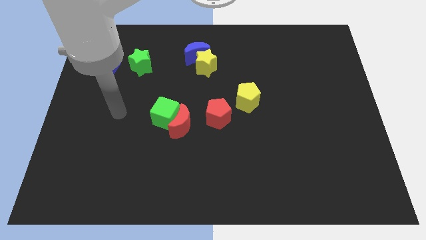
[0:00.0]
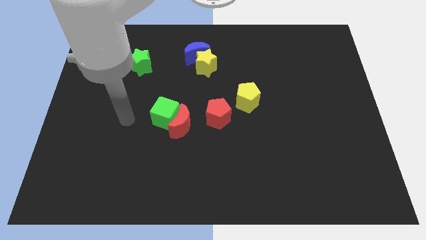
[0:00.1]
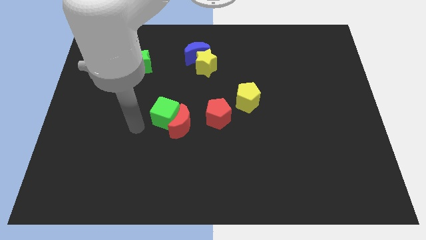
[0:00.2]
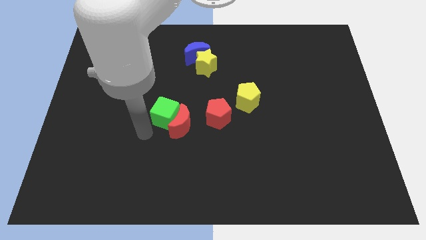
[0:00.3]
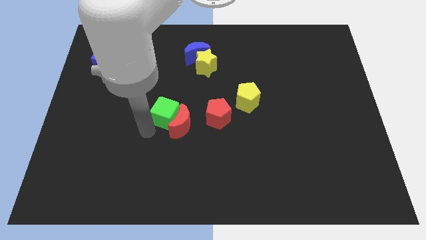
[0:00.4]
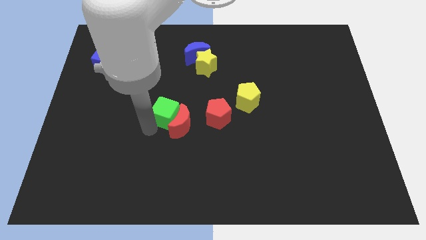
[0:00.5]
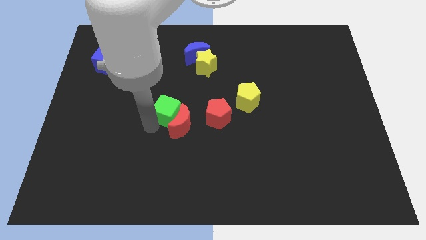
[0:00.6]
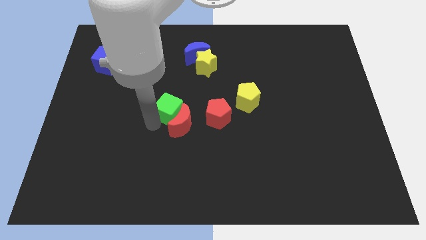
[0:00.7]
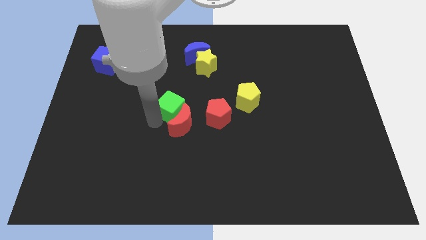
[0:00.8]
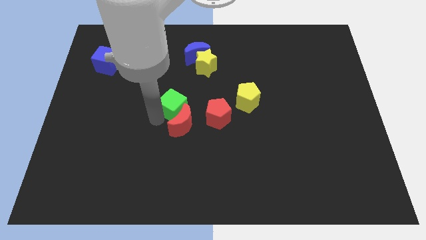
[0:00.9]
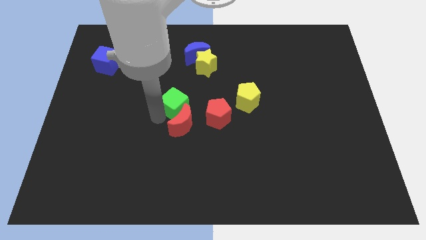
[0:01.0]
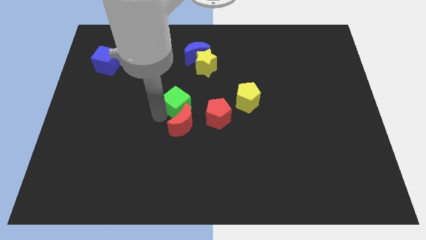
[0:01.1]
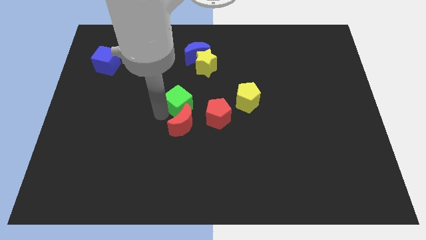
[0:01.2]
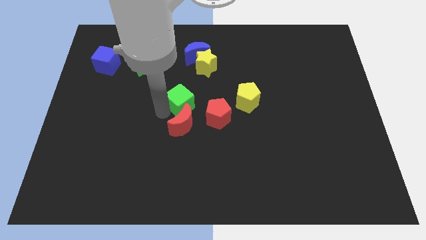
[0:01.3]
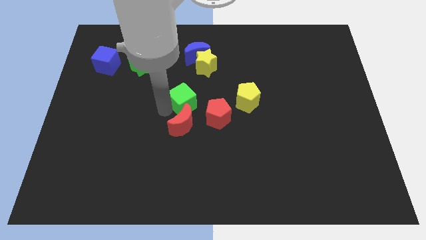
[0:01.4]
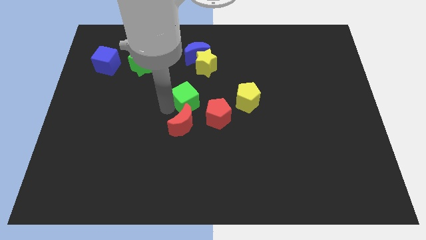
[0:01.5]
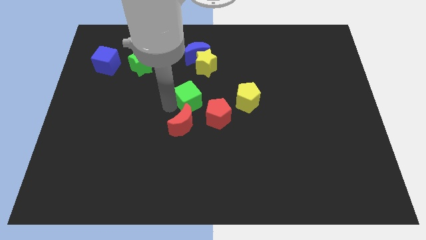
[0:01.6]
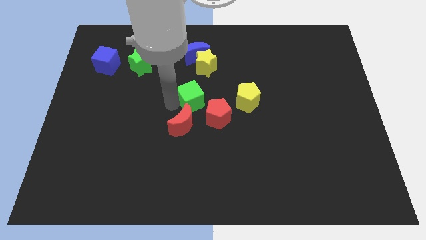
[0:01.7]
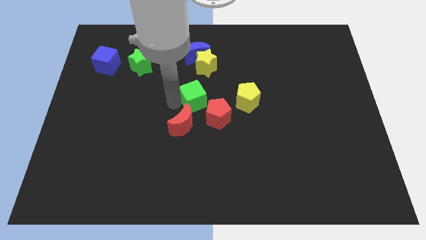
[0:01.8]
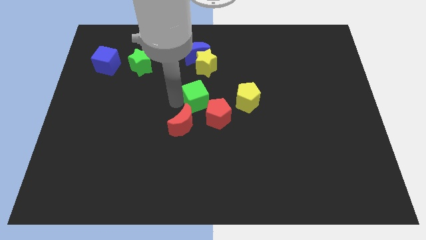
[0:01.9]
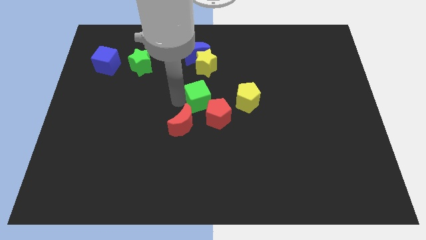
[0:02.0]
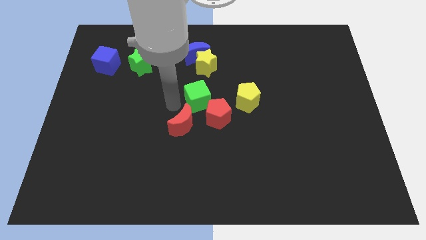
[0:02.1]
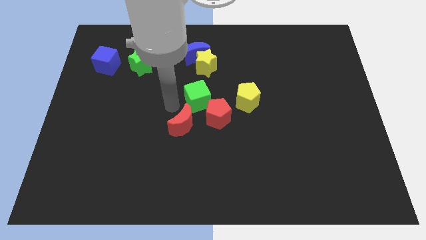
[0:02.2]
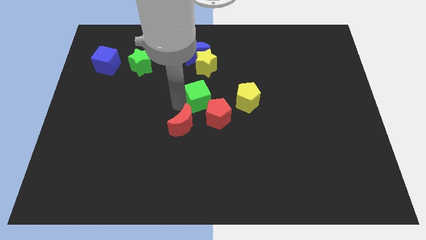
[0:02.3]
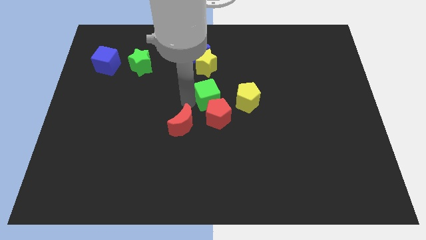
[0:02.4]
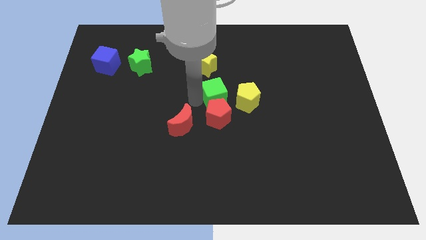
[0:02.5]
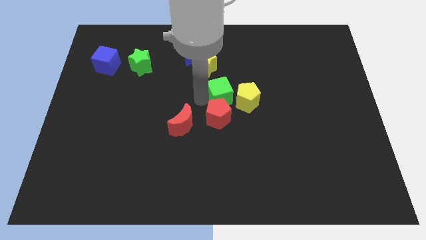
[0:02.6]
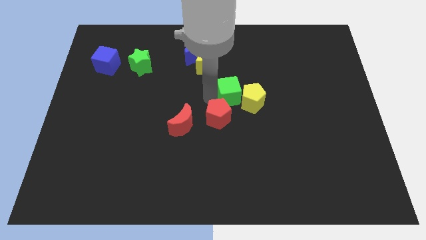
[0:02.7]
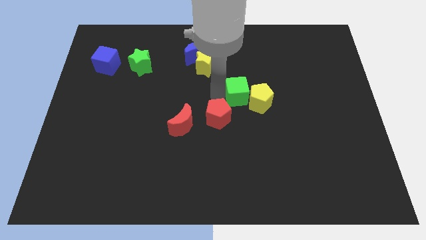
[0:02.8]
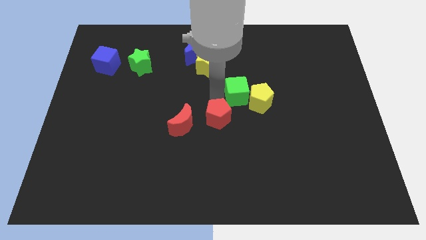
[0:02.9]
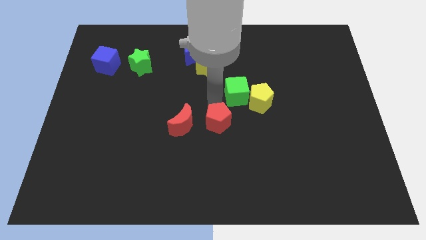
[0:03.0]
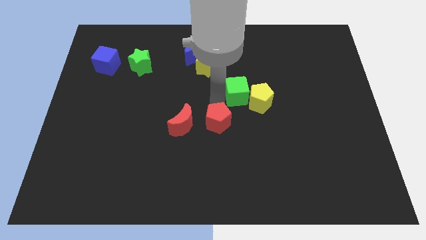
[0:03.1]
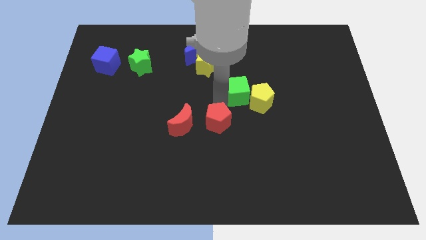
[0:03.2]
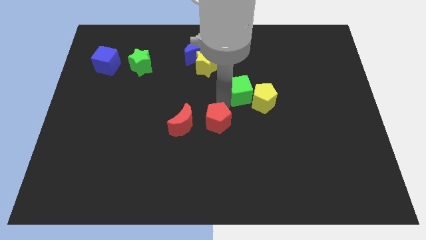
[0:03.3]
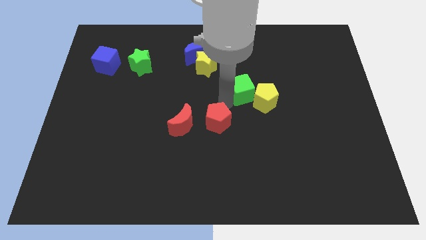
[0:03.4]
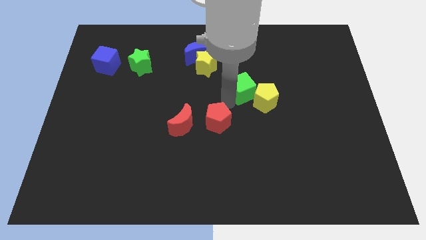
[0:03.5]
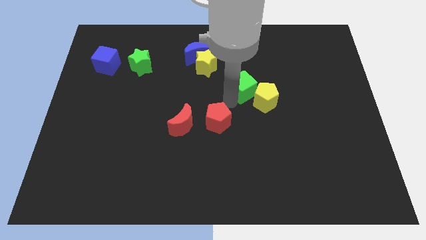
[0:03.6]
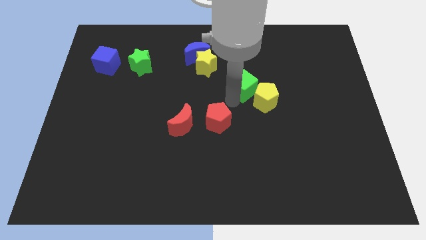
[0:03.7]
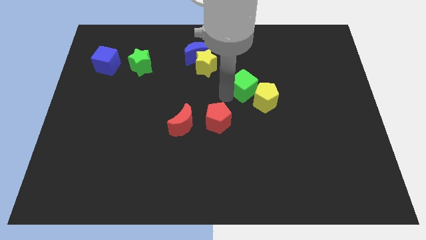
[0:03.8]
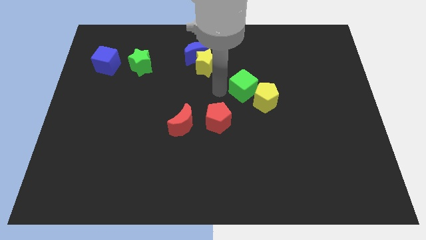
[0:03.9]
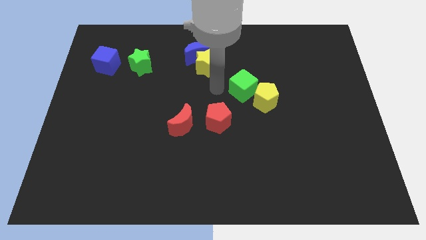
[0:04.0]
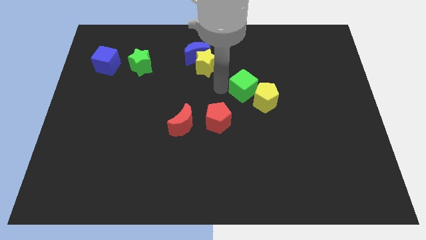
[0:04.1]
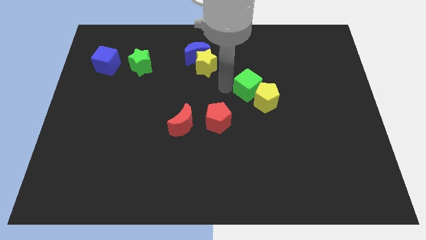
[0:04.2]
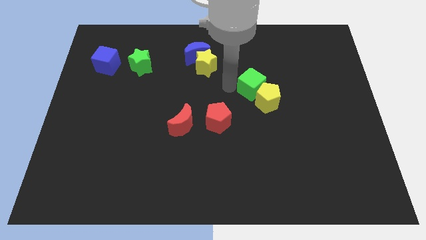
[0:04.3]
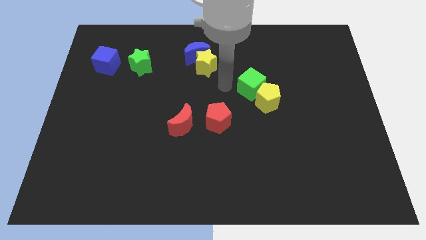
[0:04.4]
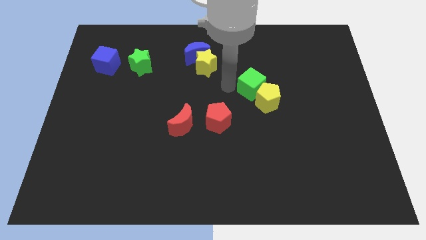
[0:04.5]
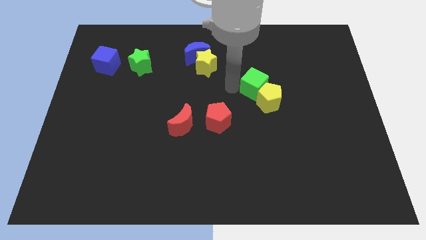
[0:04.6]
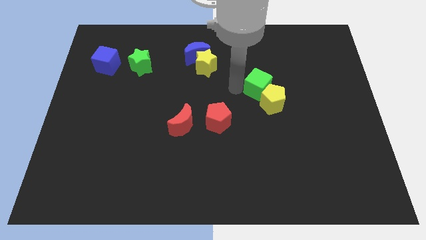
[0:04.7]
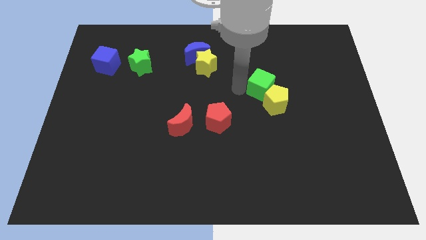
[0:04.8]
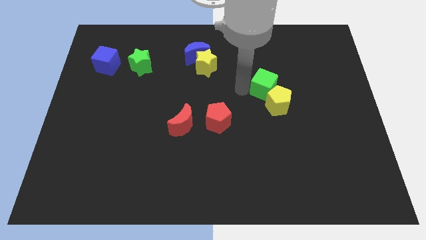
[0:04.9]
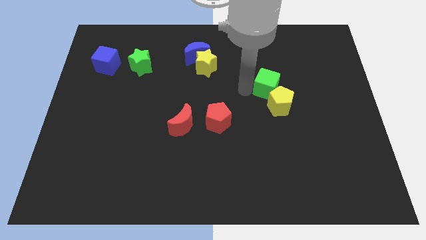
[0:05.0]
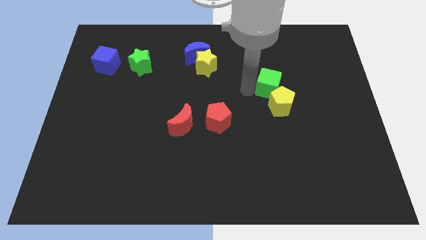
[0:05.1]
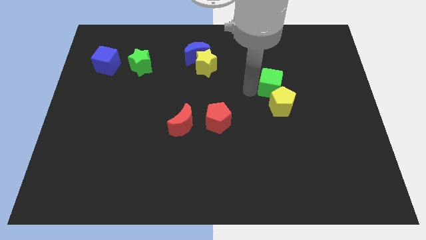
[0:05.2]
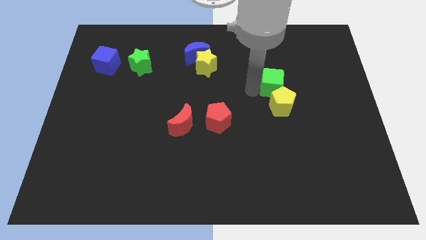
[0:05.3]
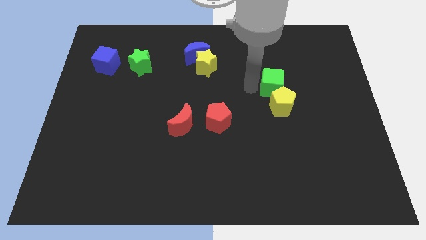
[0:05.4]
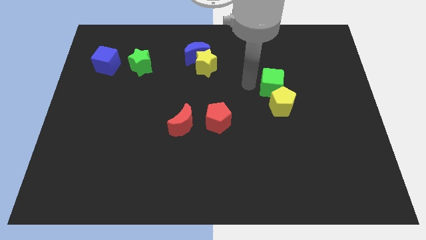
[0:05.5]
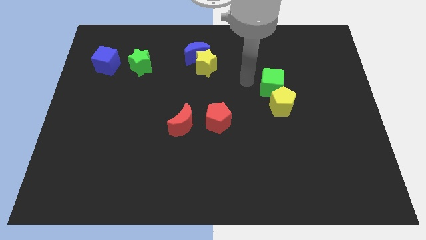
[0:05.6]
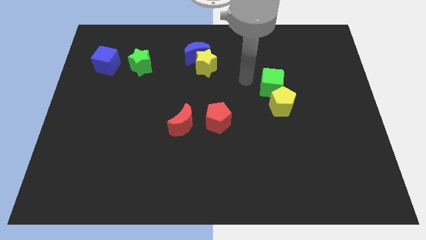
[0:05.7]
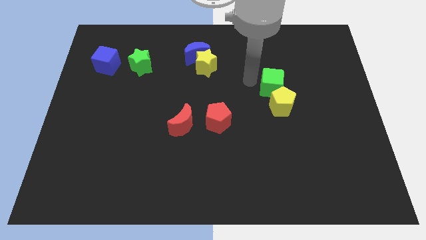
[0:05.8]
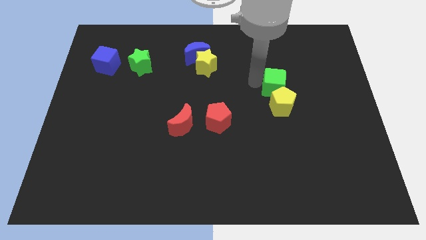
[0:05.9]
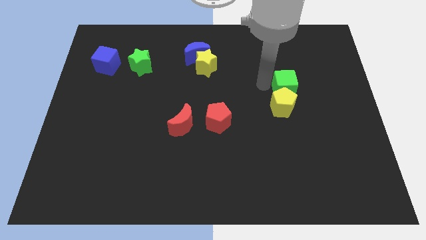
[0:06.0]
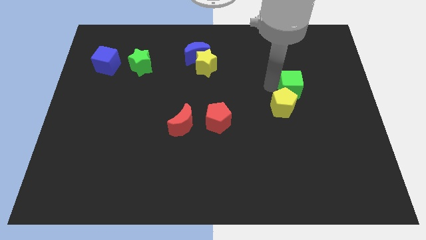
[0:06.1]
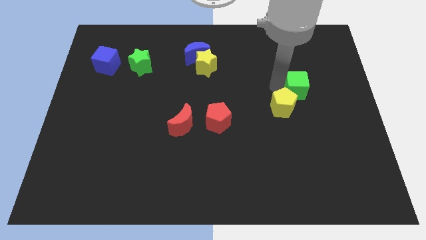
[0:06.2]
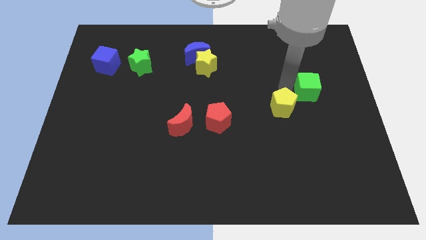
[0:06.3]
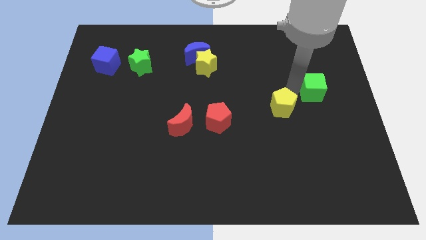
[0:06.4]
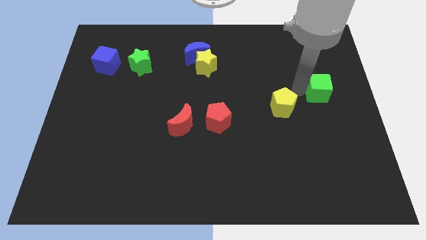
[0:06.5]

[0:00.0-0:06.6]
slide the green cube to the right side of the board

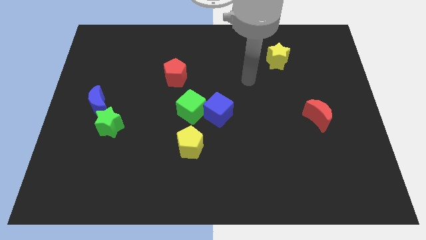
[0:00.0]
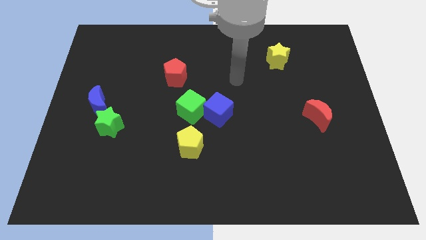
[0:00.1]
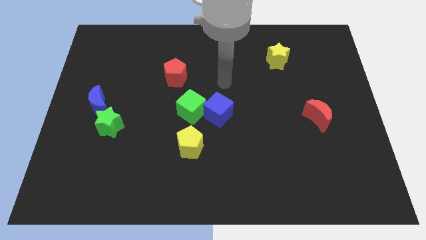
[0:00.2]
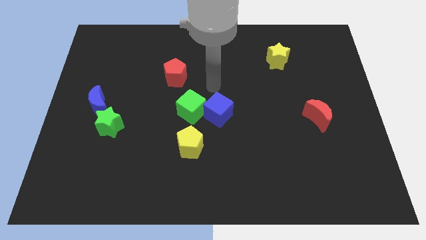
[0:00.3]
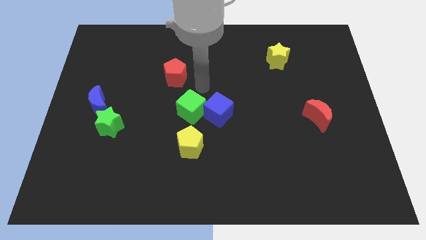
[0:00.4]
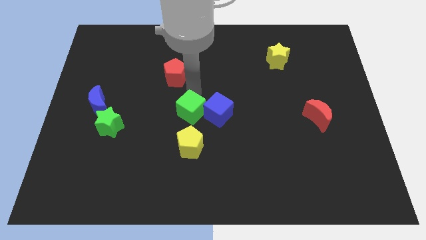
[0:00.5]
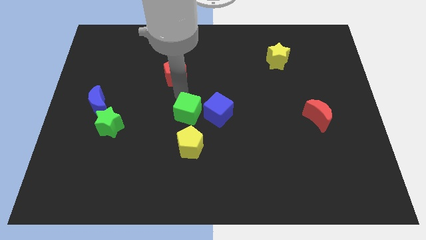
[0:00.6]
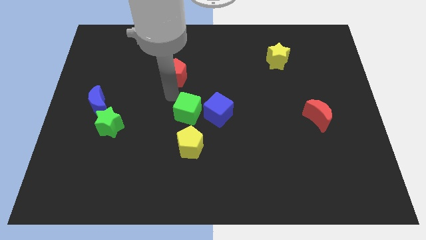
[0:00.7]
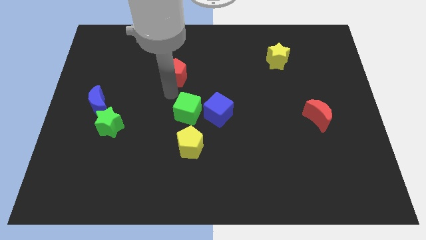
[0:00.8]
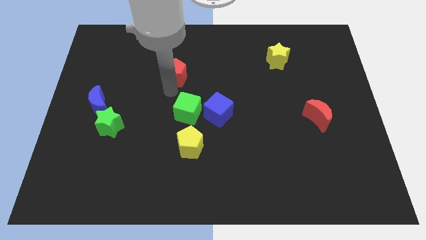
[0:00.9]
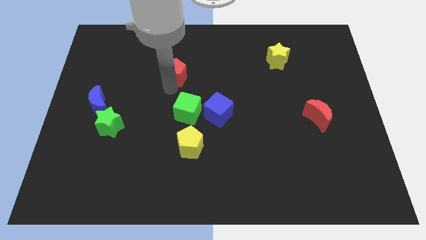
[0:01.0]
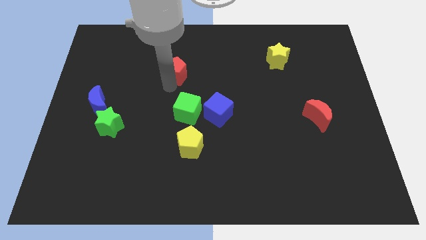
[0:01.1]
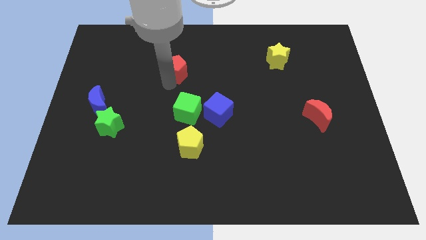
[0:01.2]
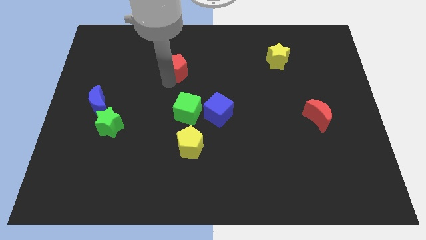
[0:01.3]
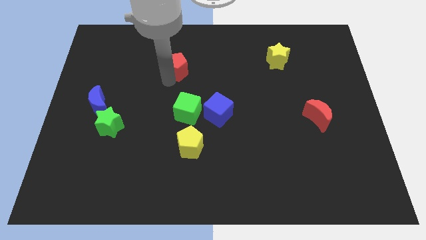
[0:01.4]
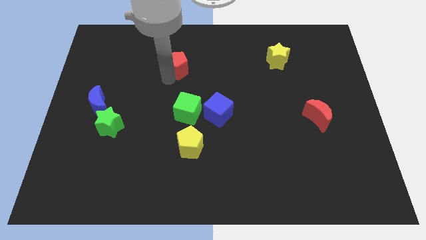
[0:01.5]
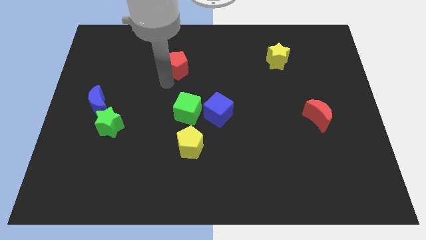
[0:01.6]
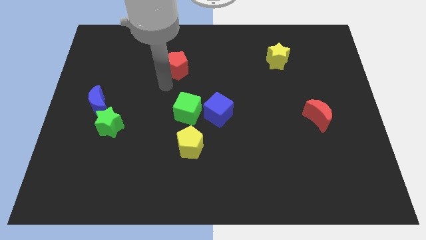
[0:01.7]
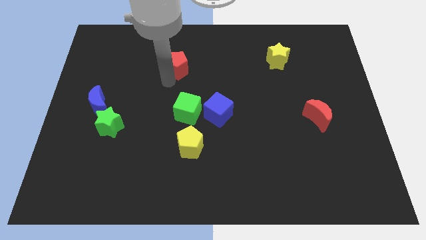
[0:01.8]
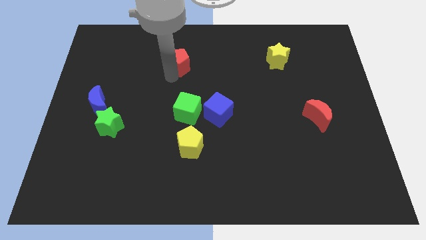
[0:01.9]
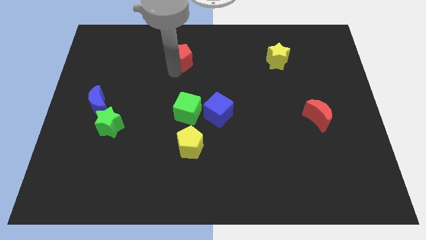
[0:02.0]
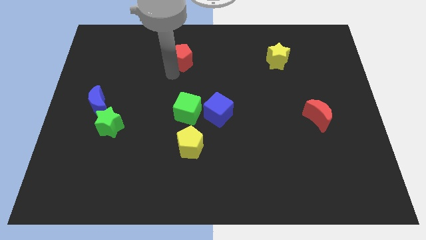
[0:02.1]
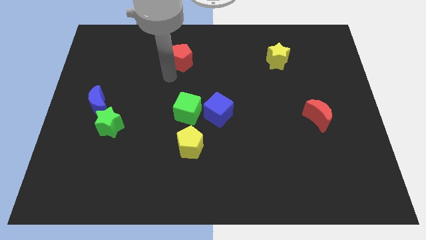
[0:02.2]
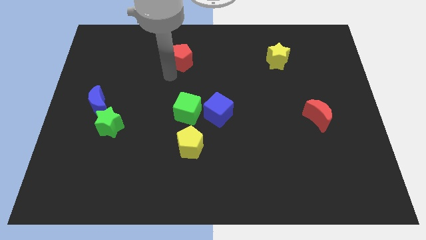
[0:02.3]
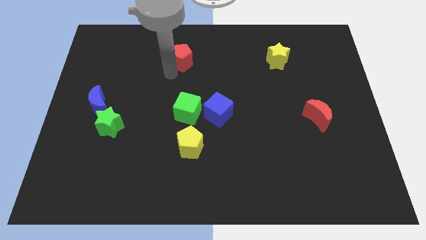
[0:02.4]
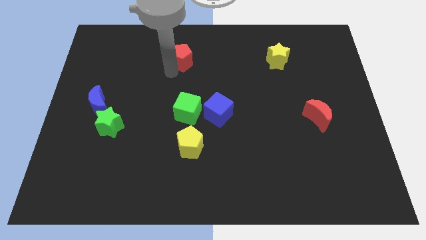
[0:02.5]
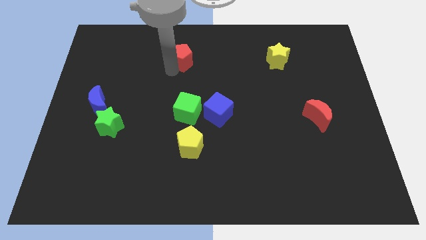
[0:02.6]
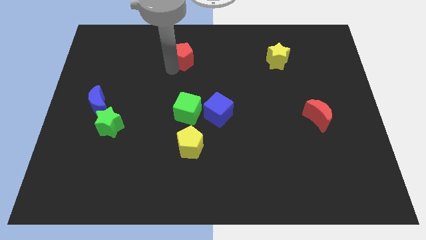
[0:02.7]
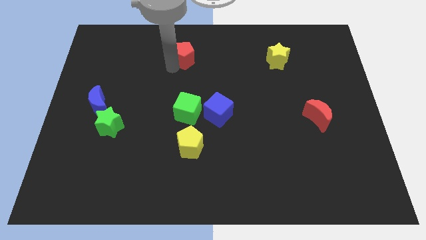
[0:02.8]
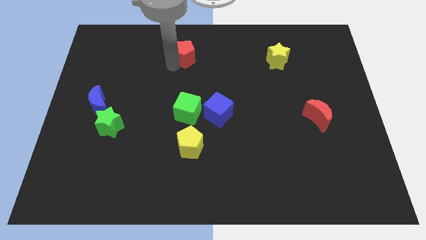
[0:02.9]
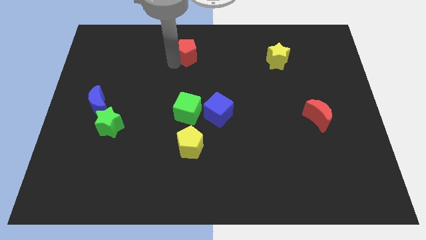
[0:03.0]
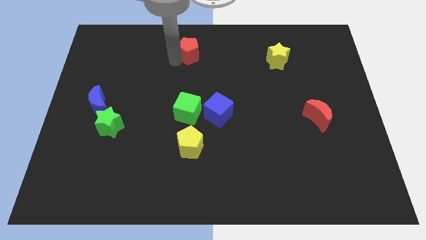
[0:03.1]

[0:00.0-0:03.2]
slide the red pentagon to the top
